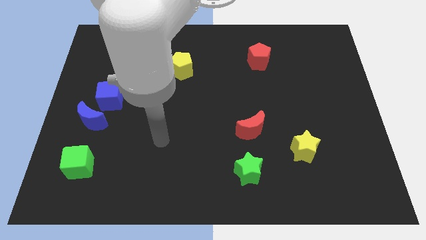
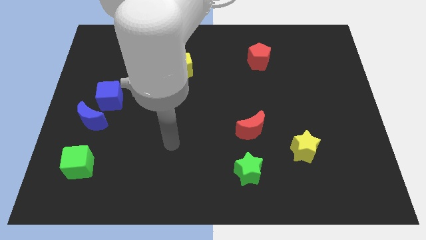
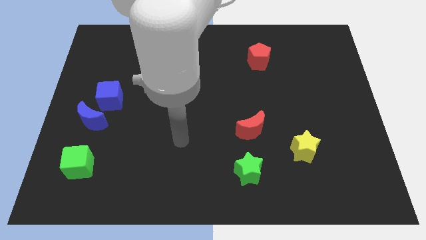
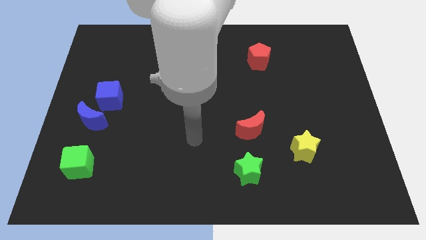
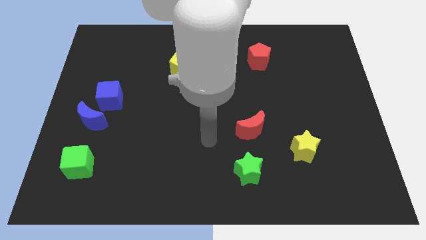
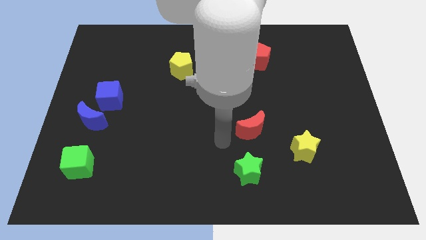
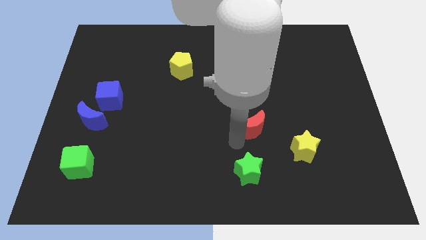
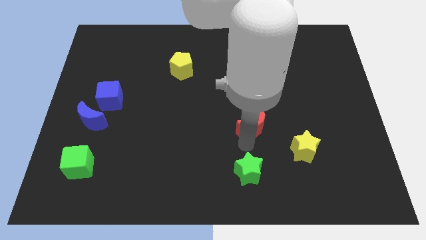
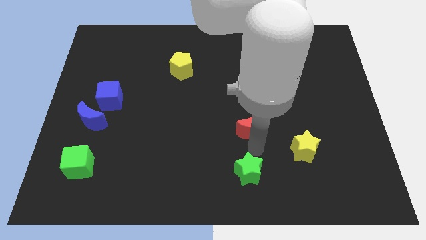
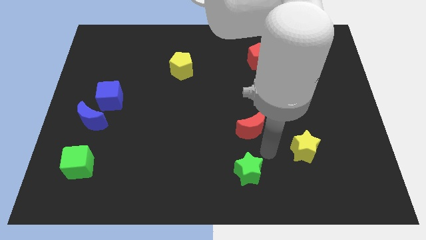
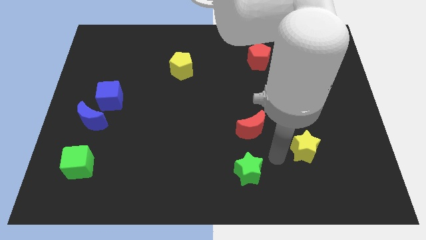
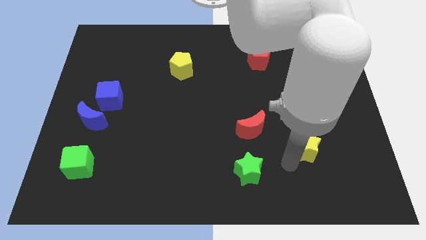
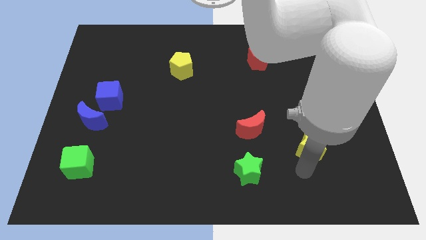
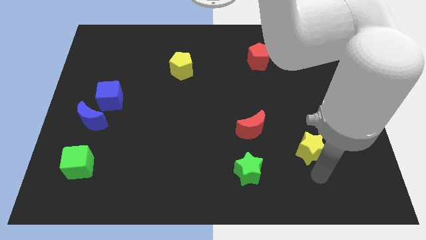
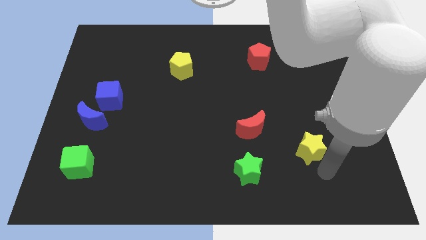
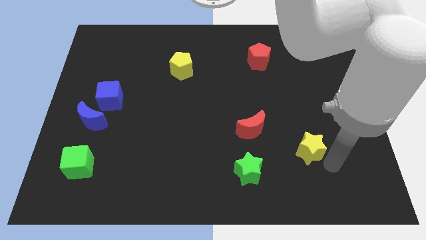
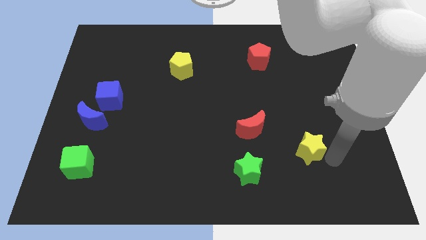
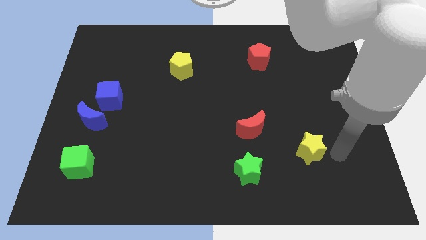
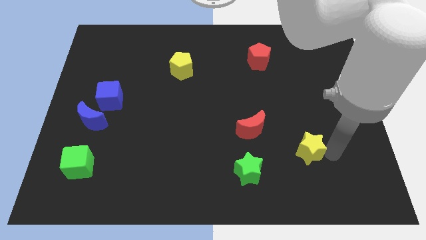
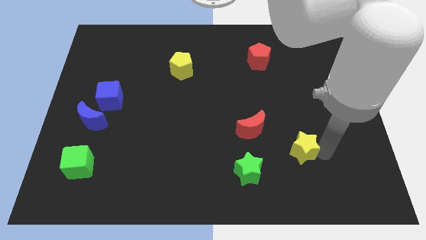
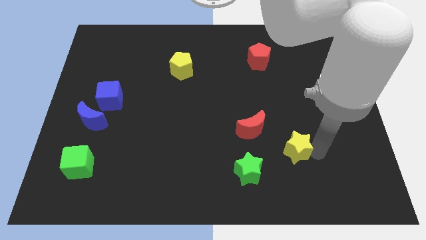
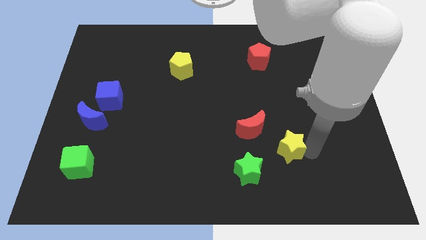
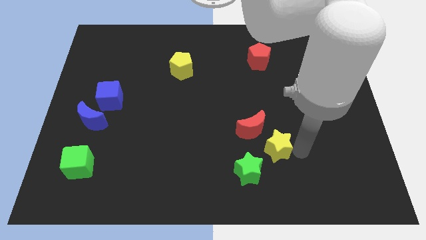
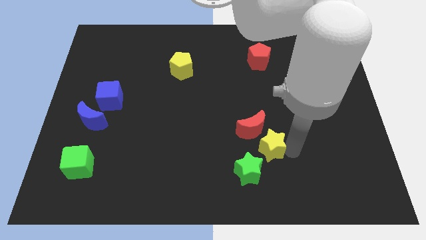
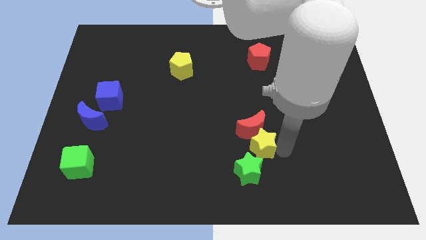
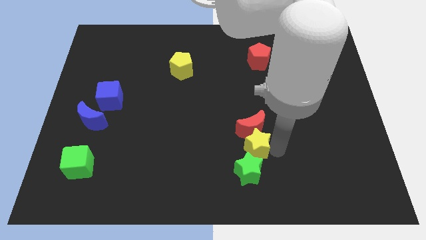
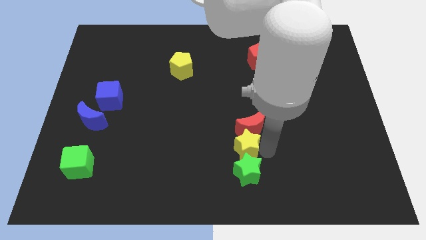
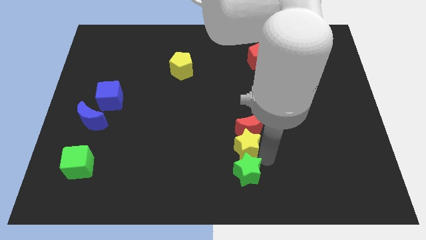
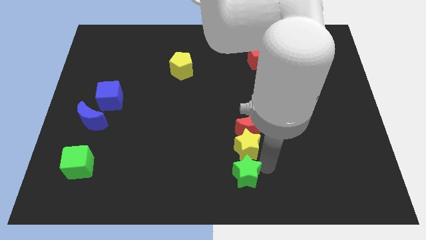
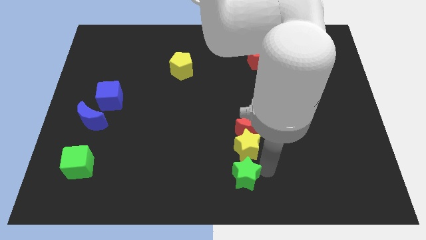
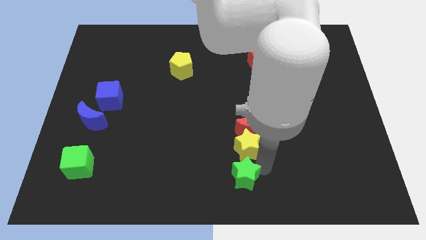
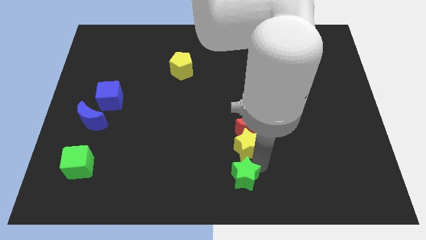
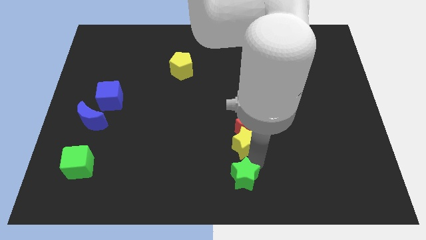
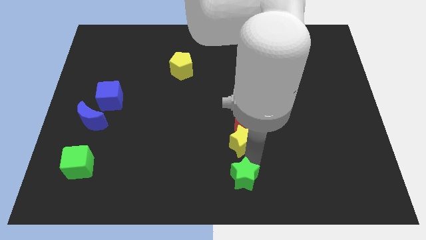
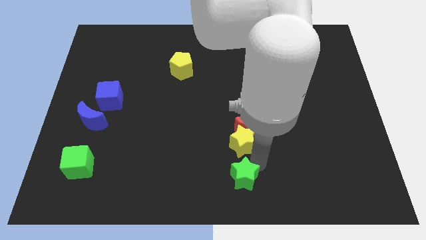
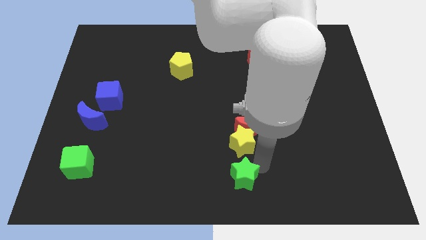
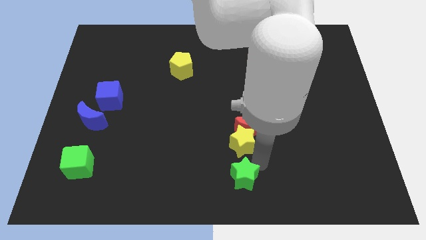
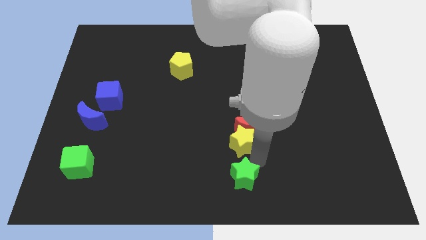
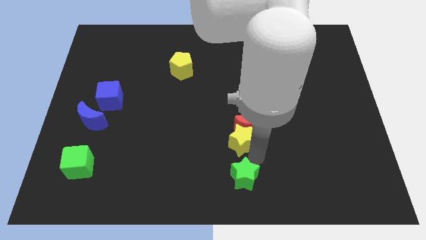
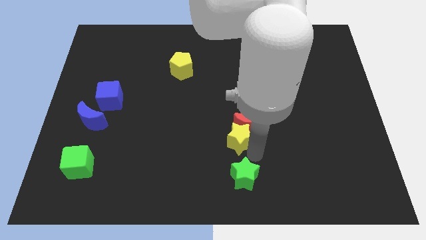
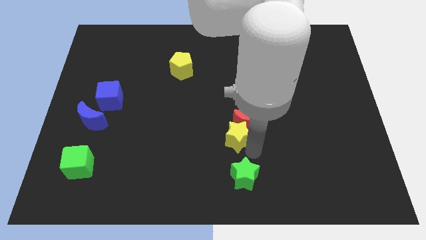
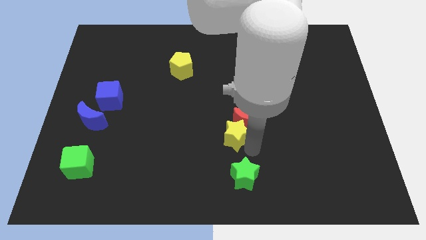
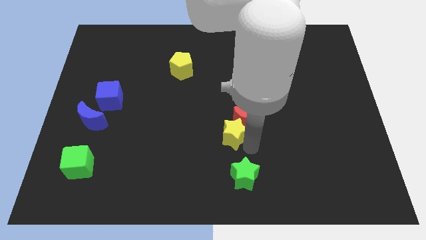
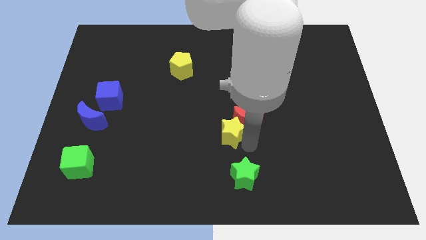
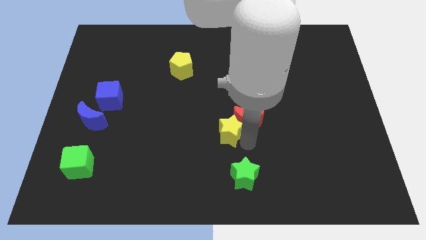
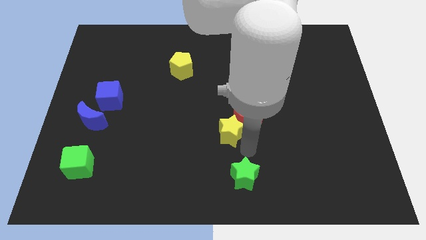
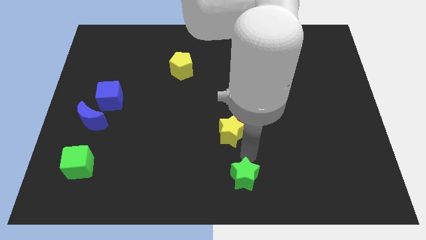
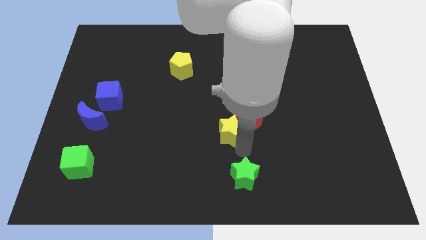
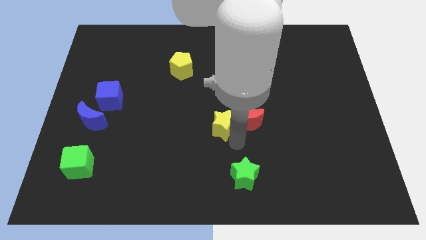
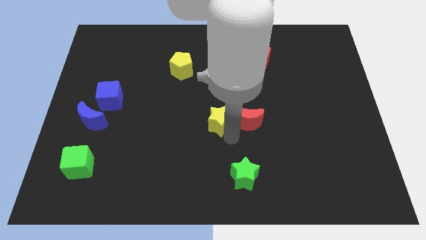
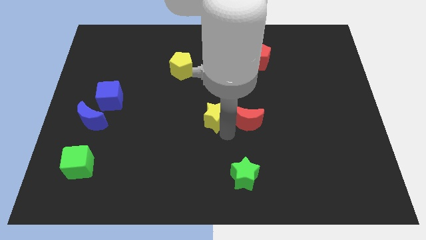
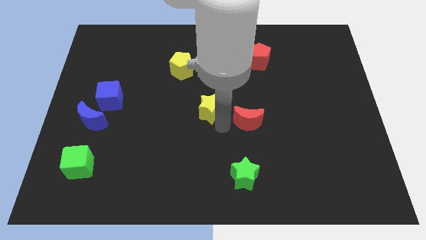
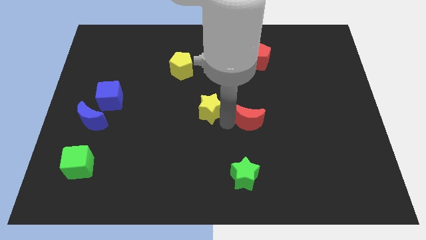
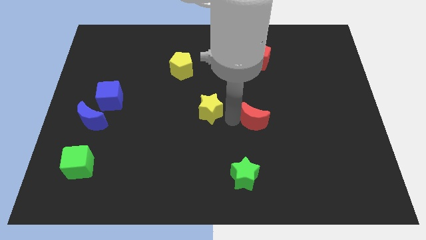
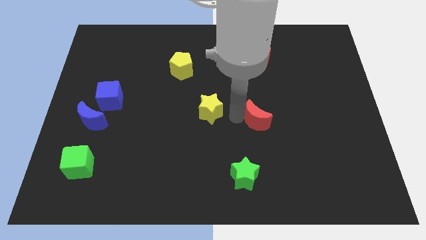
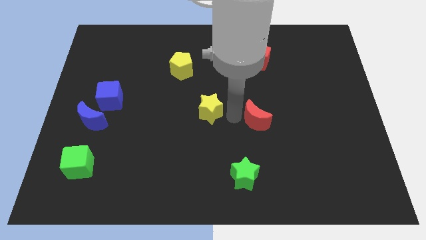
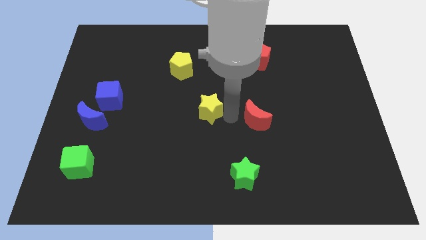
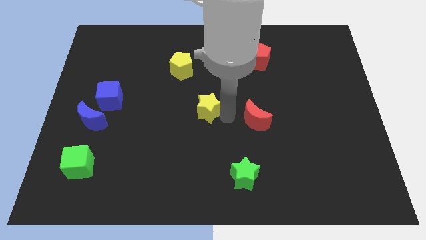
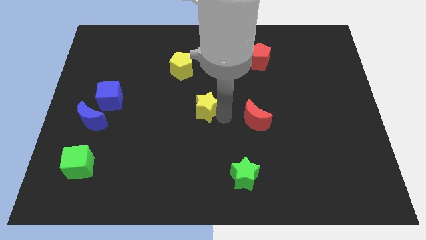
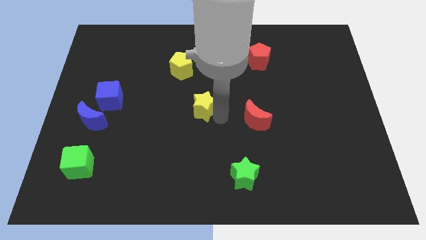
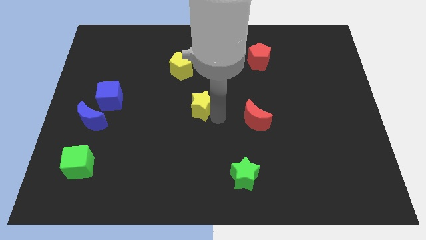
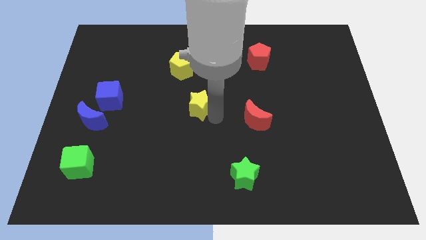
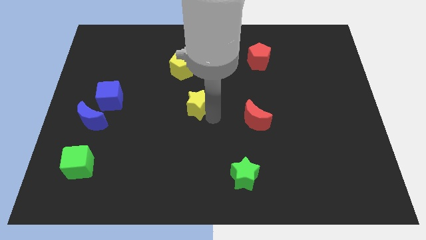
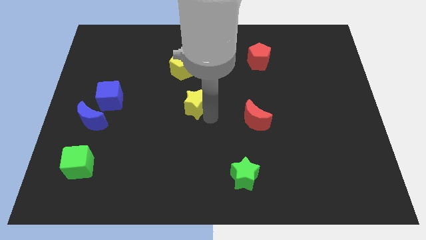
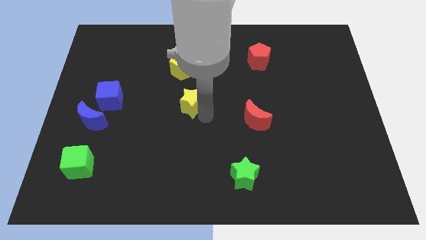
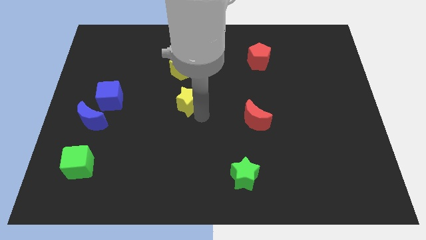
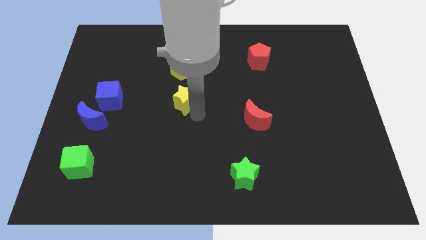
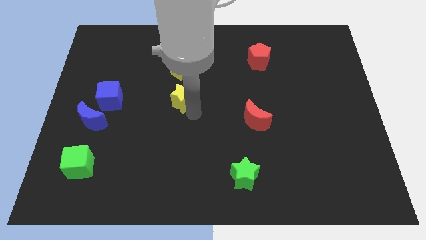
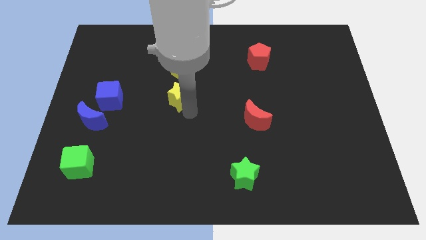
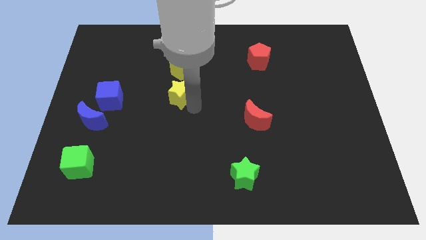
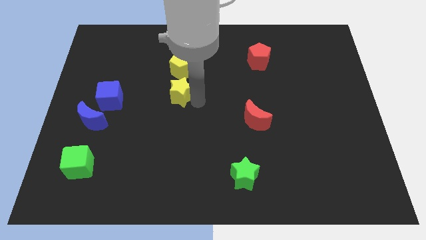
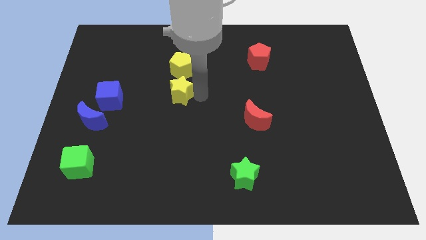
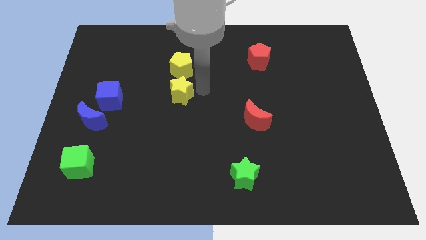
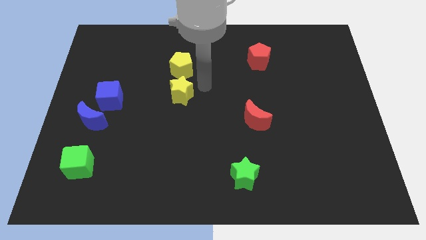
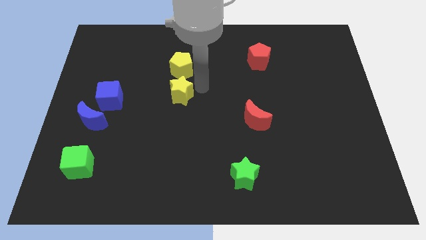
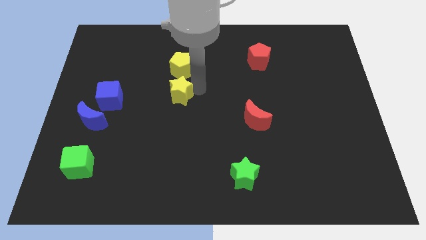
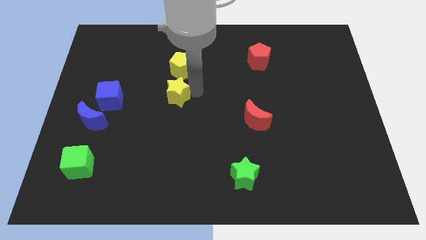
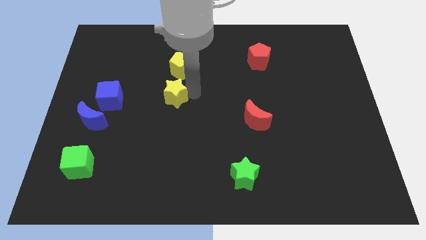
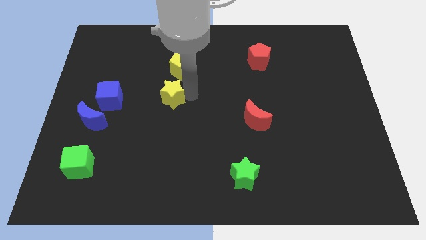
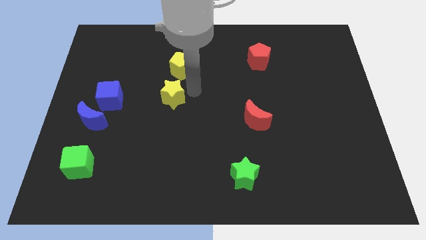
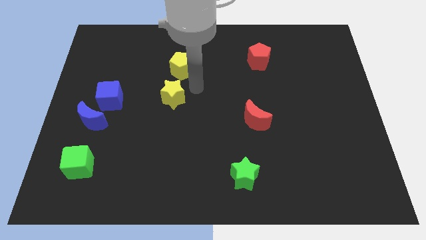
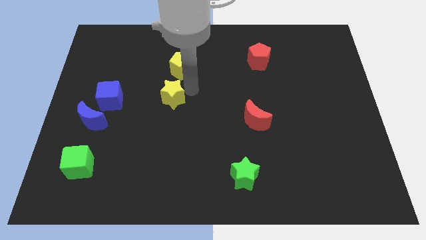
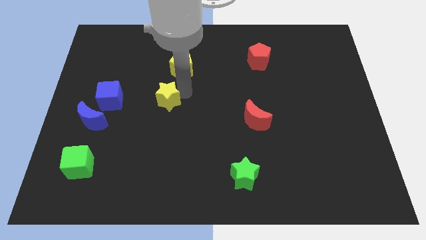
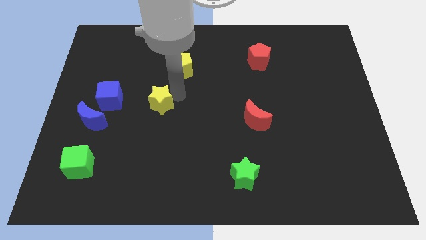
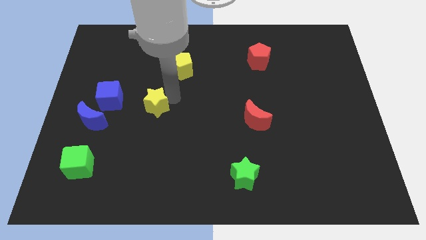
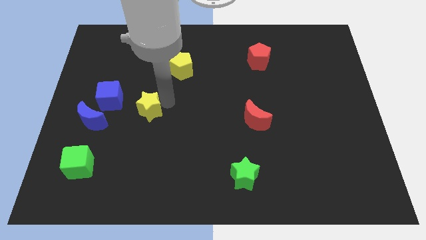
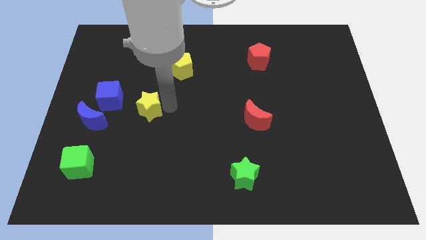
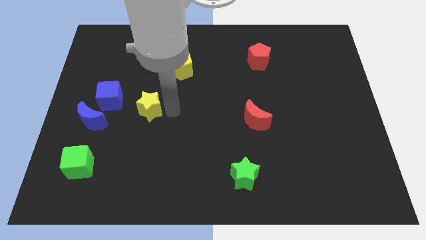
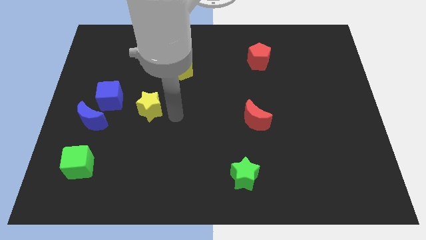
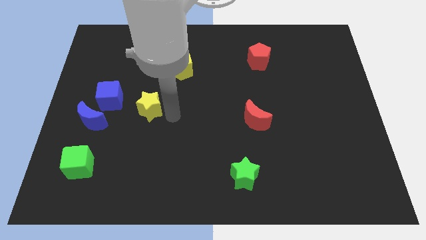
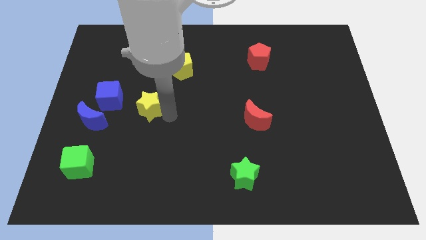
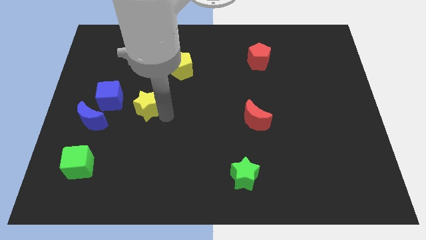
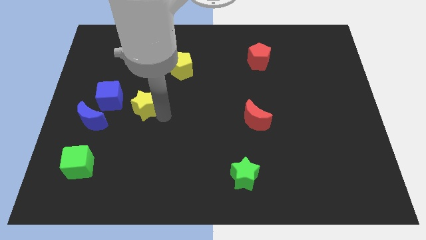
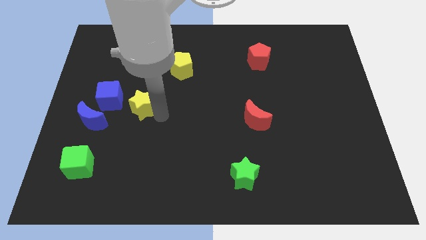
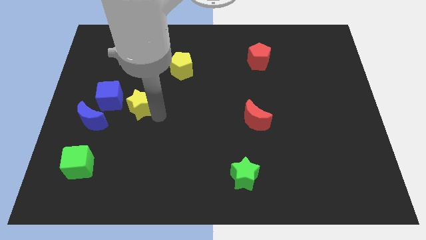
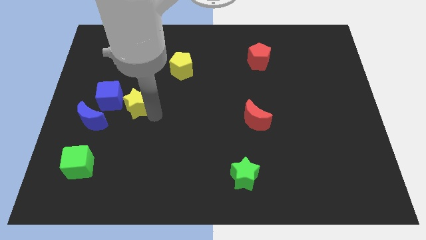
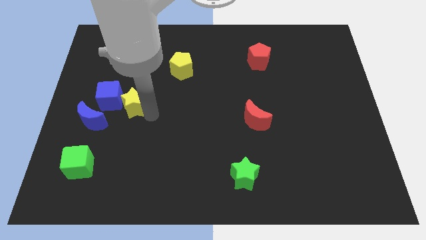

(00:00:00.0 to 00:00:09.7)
push the yellow star close to the blue cube
